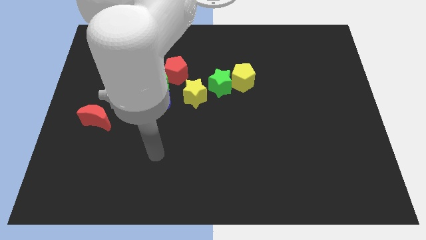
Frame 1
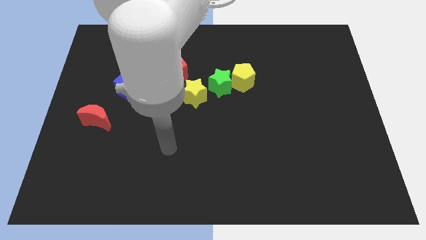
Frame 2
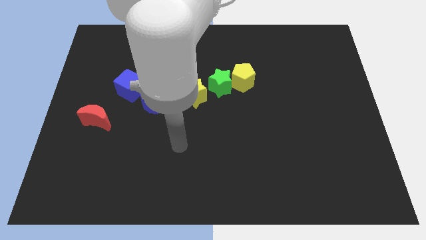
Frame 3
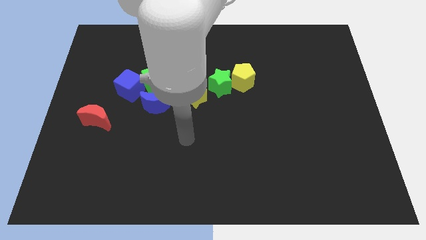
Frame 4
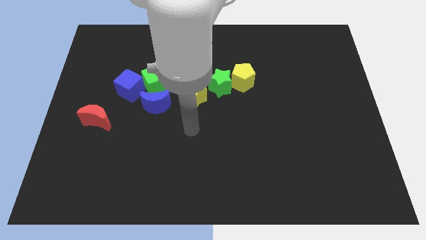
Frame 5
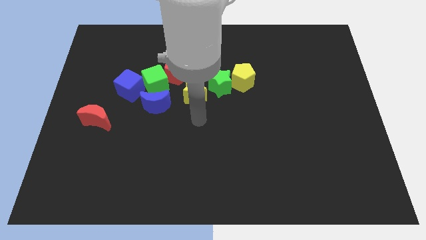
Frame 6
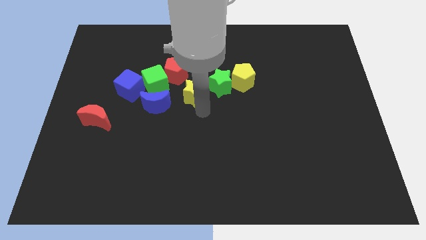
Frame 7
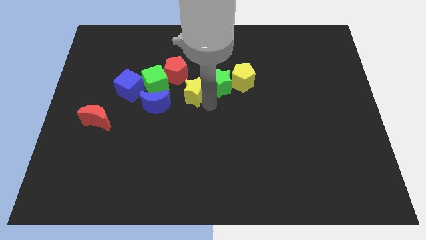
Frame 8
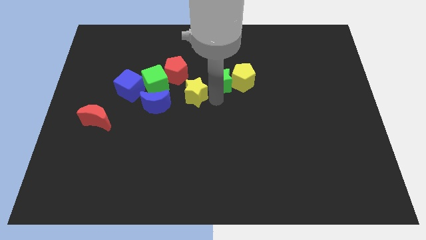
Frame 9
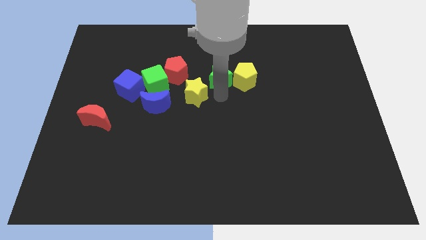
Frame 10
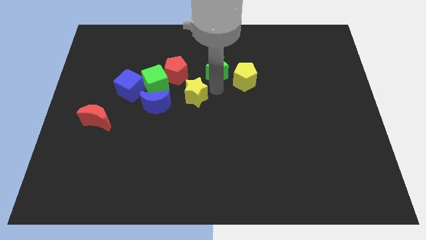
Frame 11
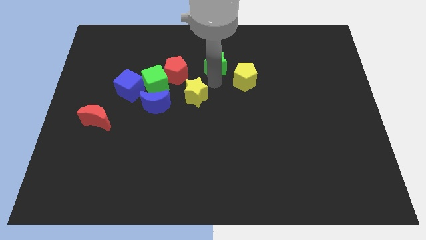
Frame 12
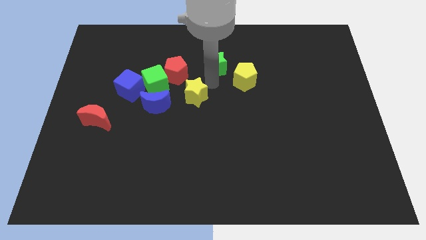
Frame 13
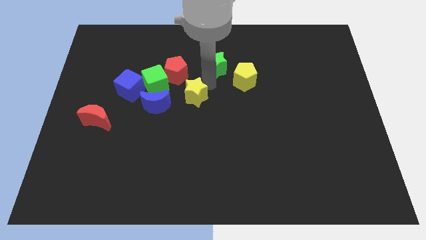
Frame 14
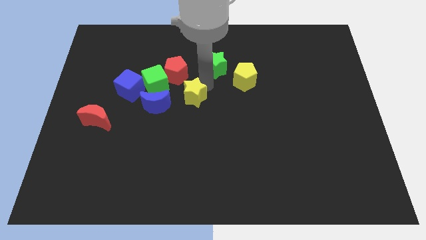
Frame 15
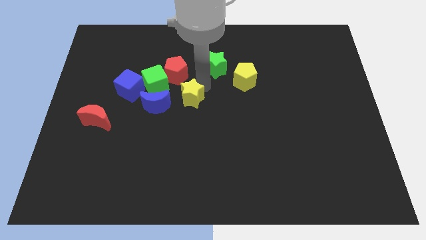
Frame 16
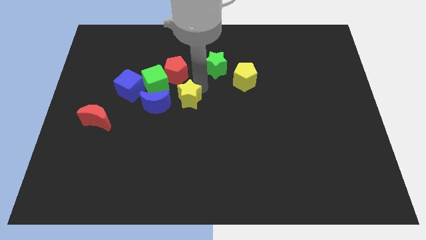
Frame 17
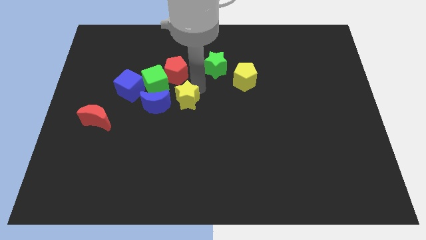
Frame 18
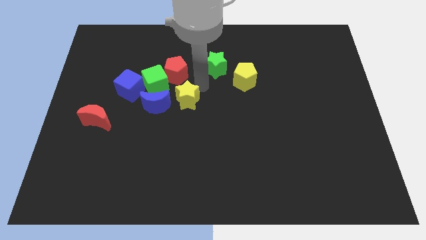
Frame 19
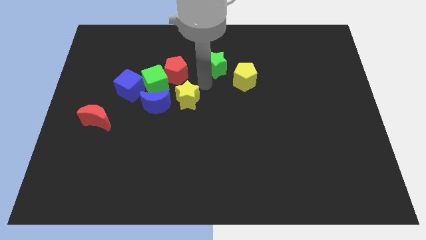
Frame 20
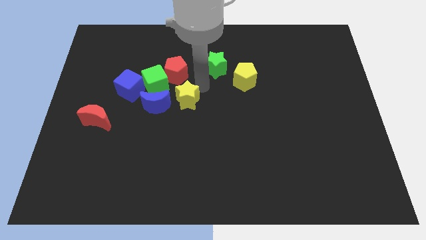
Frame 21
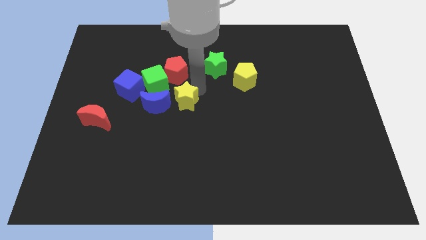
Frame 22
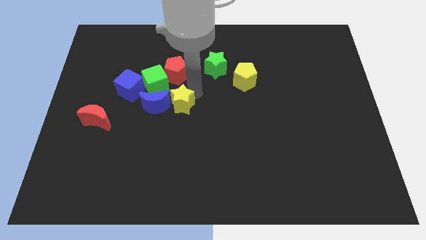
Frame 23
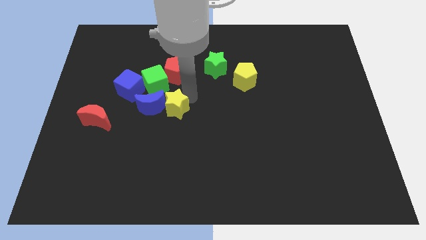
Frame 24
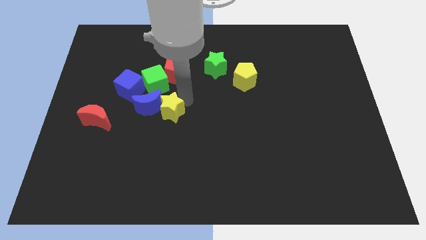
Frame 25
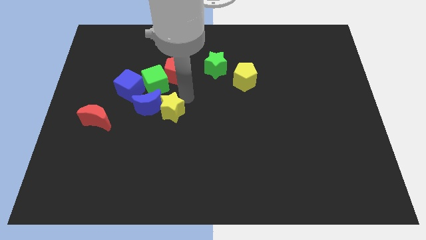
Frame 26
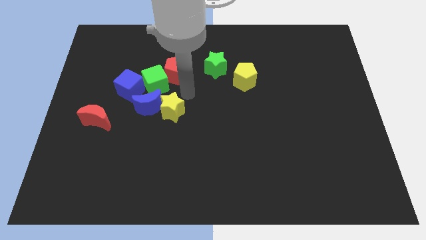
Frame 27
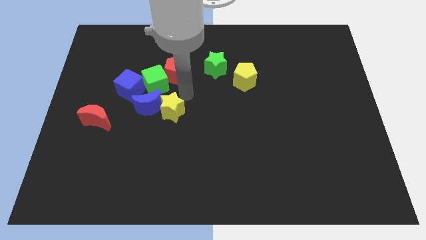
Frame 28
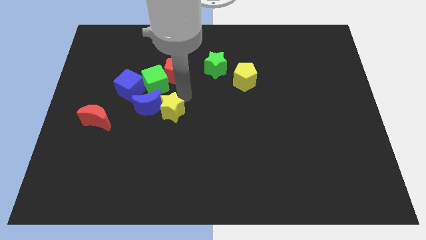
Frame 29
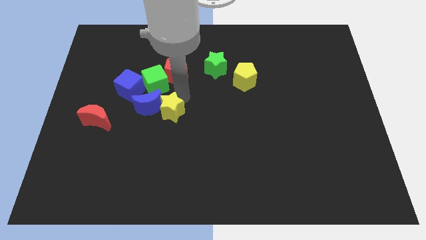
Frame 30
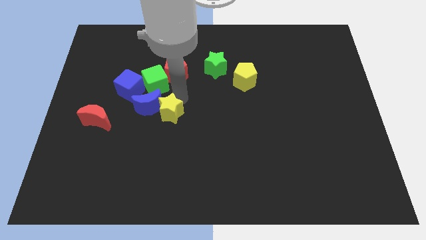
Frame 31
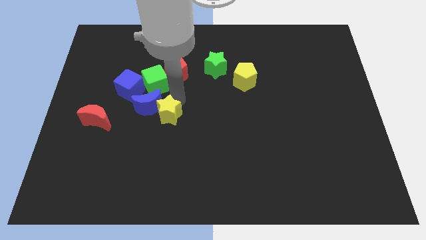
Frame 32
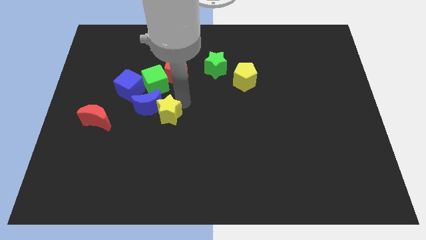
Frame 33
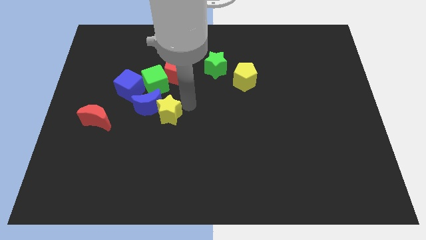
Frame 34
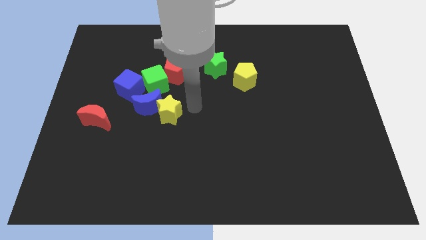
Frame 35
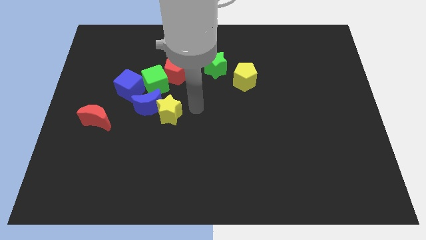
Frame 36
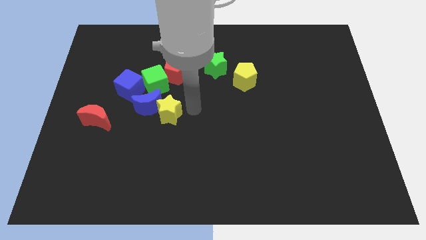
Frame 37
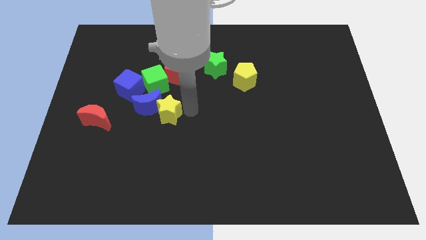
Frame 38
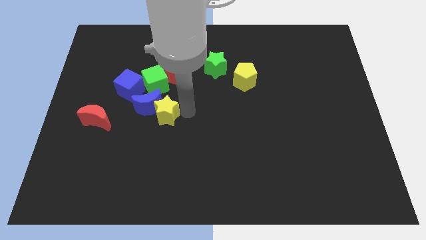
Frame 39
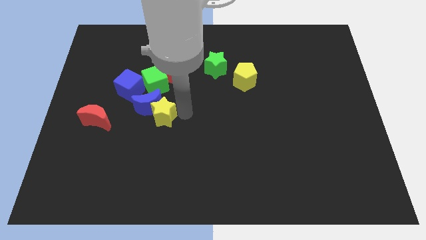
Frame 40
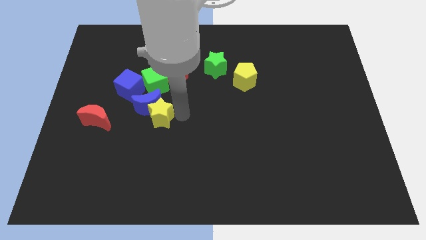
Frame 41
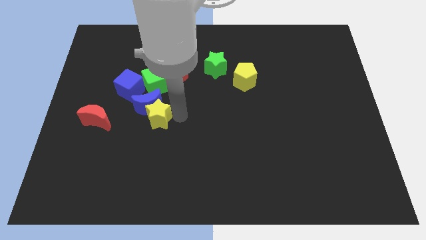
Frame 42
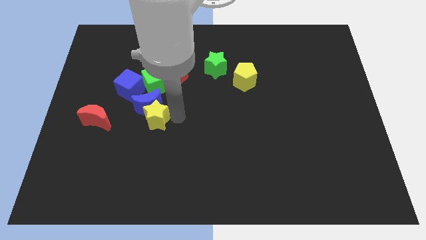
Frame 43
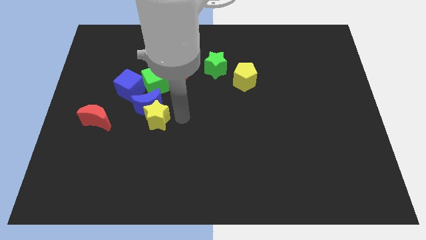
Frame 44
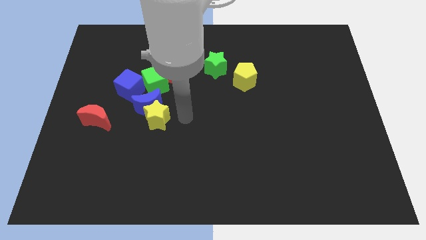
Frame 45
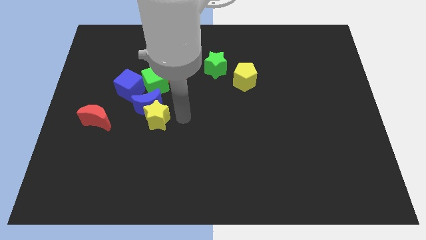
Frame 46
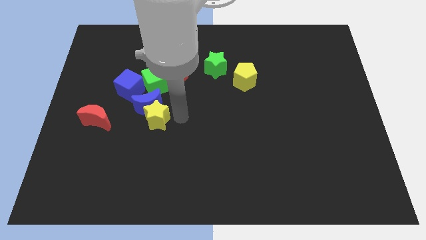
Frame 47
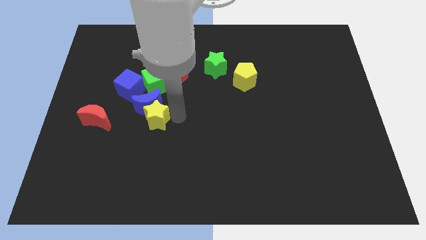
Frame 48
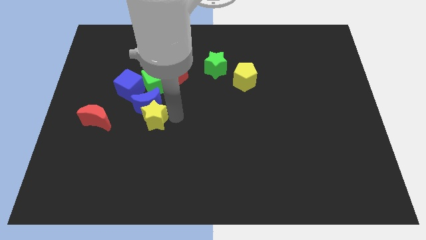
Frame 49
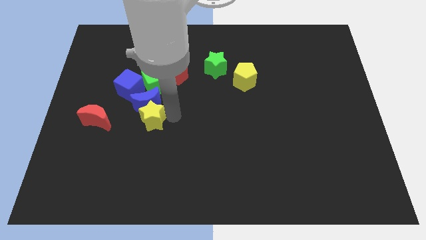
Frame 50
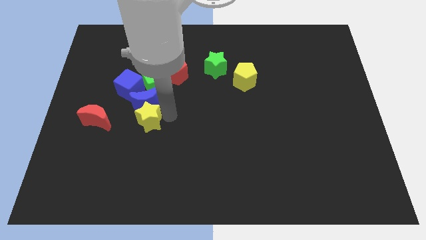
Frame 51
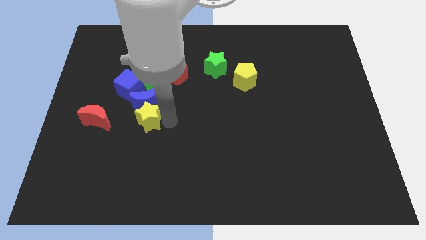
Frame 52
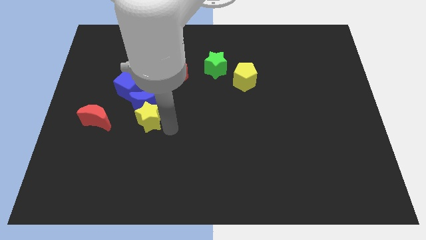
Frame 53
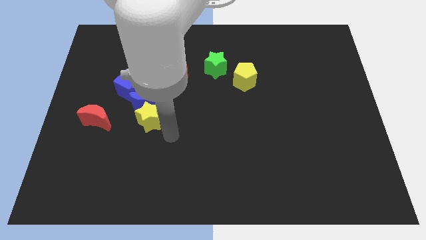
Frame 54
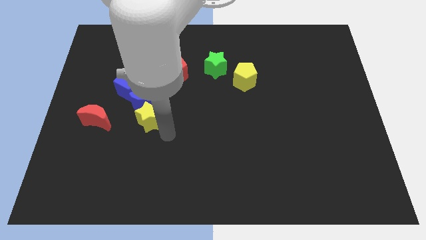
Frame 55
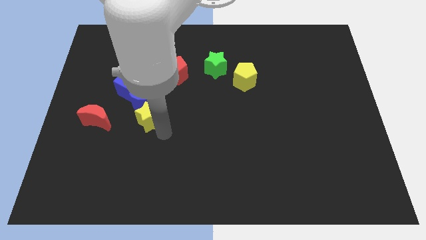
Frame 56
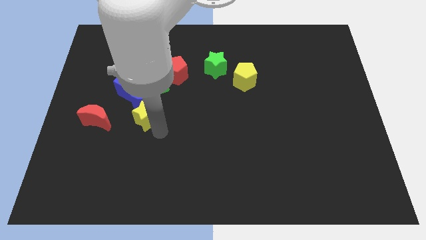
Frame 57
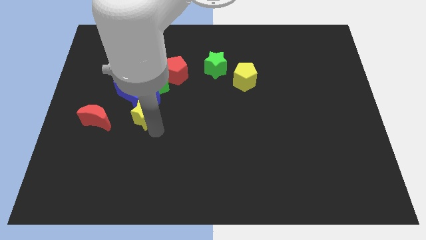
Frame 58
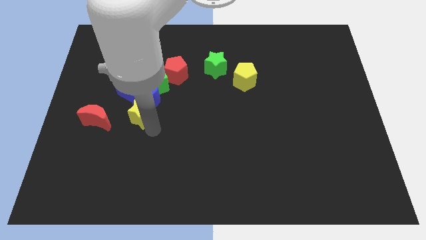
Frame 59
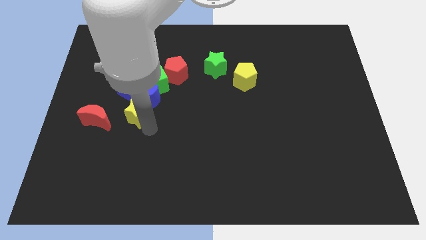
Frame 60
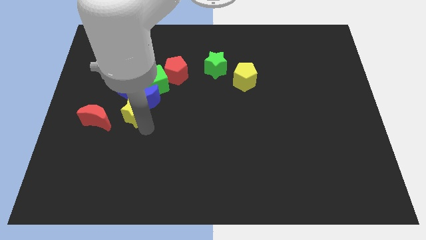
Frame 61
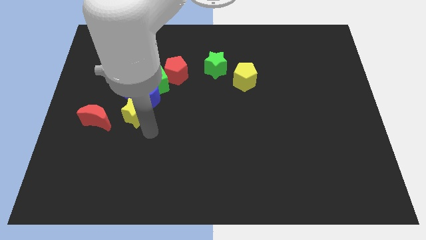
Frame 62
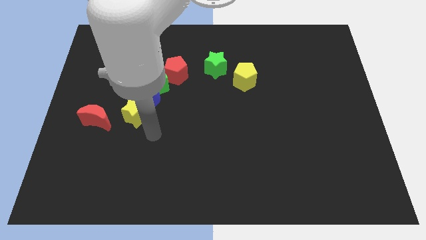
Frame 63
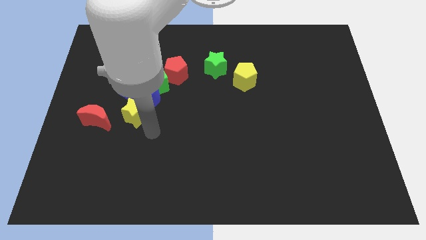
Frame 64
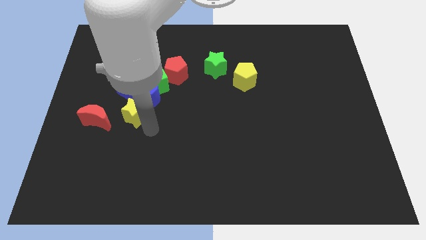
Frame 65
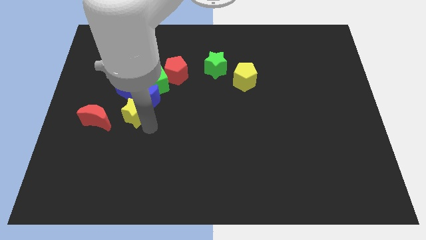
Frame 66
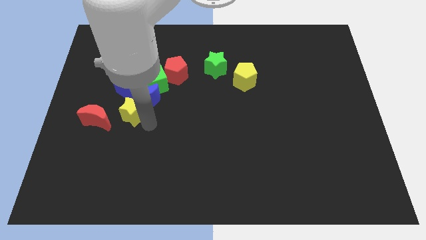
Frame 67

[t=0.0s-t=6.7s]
put the yellow star to the top right side of the red moon

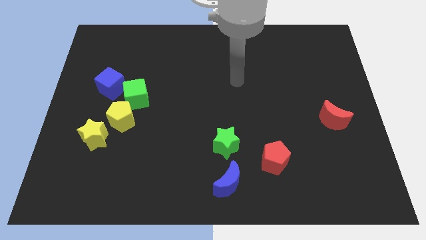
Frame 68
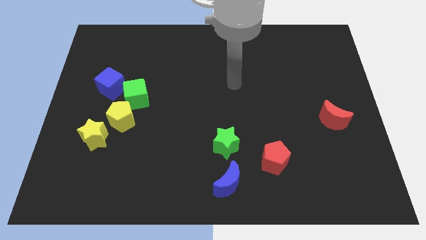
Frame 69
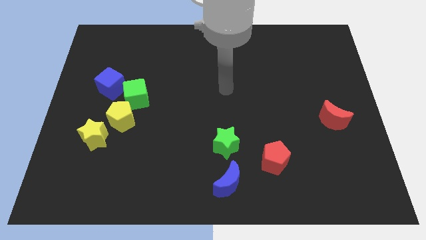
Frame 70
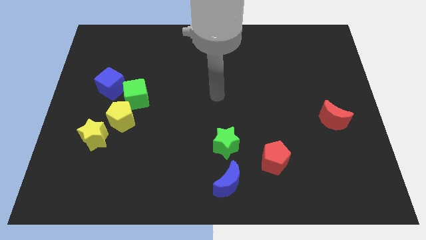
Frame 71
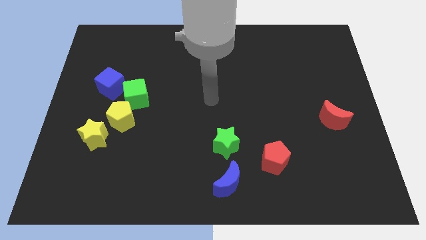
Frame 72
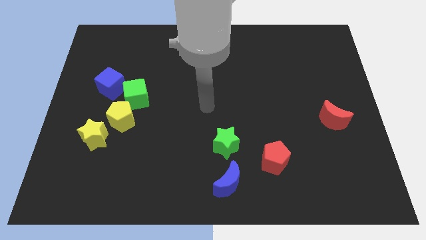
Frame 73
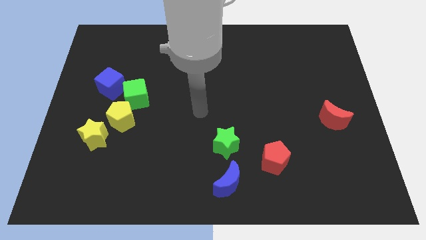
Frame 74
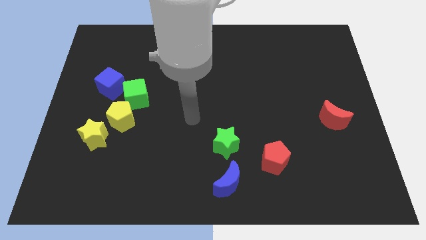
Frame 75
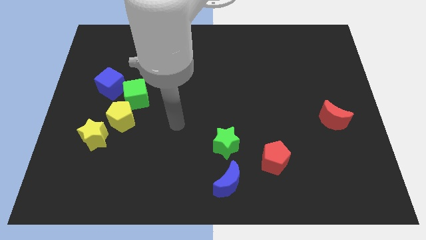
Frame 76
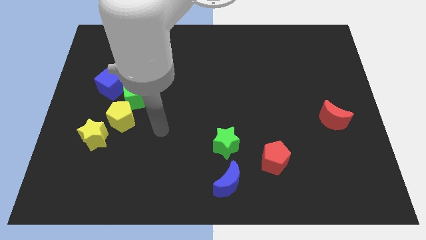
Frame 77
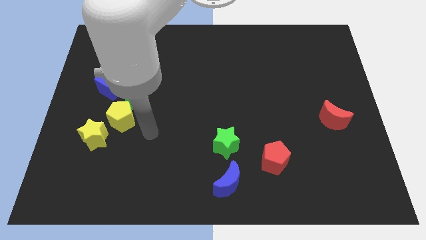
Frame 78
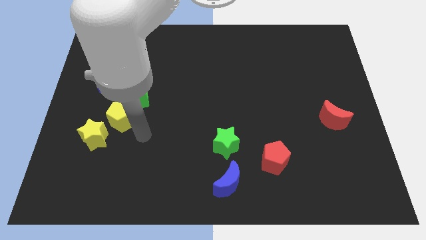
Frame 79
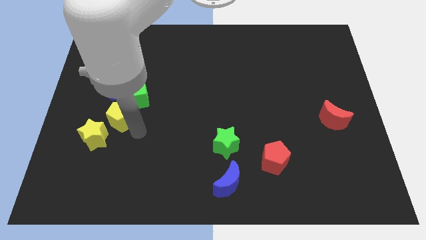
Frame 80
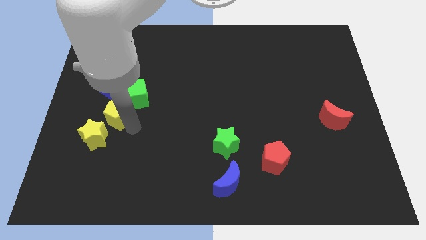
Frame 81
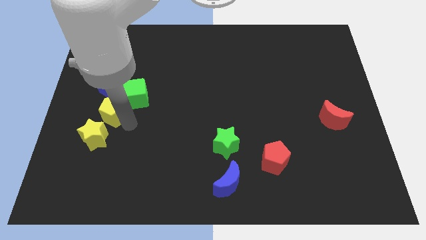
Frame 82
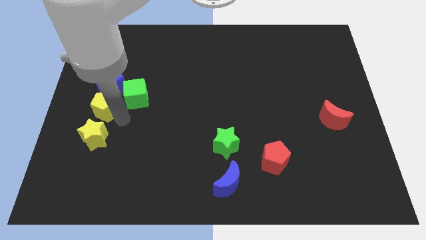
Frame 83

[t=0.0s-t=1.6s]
push the yellow pentagon left of the green cube

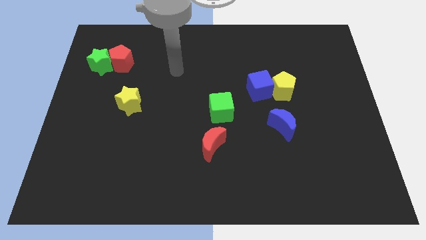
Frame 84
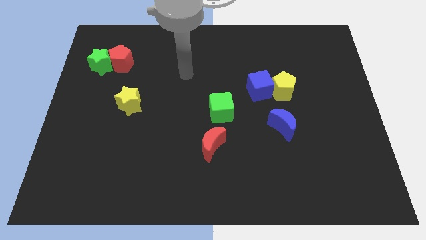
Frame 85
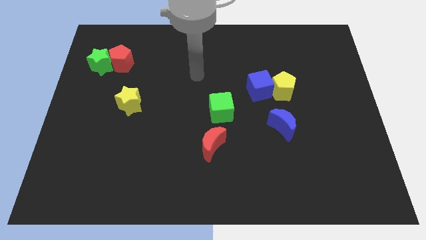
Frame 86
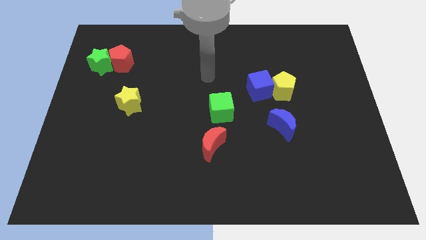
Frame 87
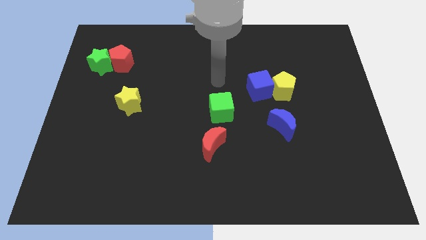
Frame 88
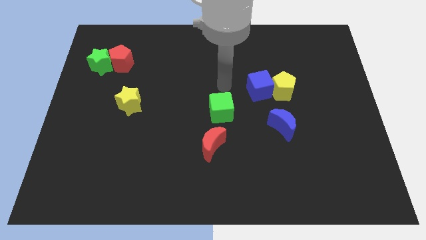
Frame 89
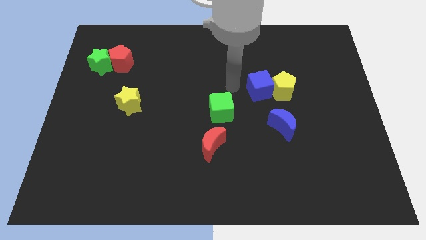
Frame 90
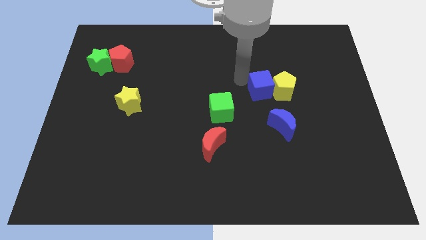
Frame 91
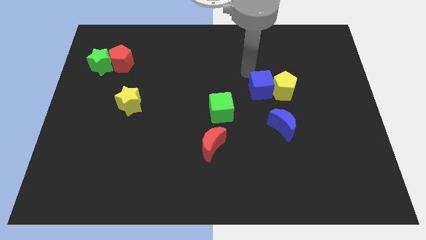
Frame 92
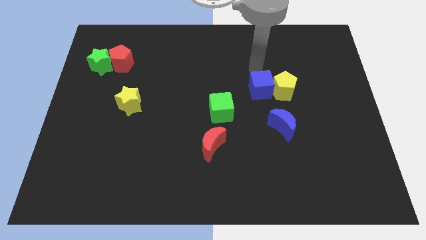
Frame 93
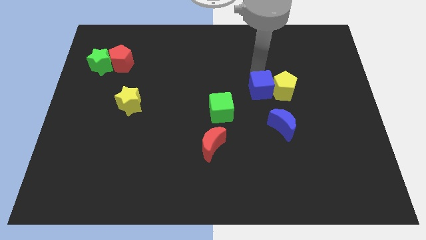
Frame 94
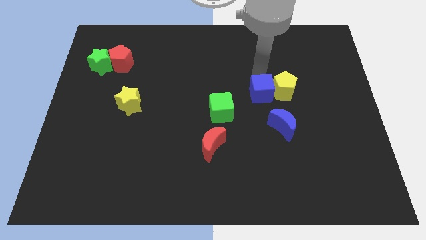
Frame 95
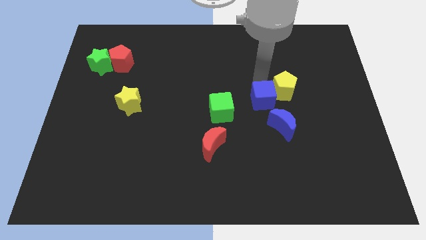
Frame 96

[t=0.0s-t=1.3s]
slide the blue cube to the right of the green cube
